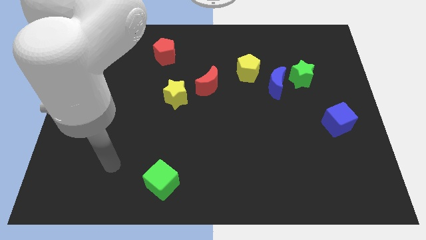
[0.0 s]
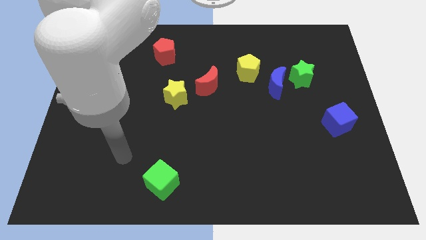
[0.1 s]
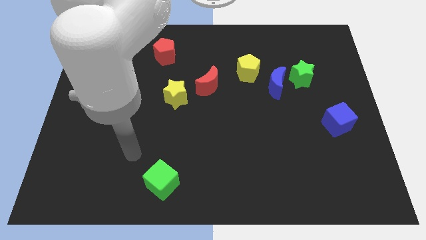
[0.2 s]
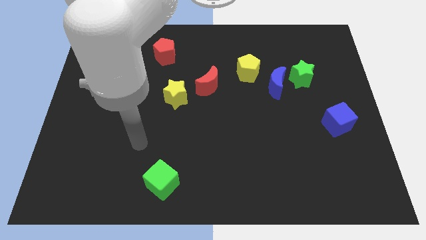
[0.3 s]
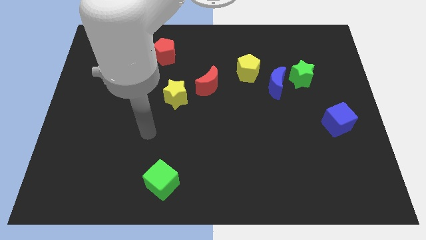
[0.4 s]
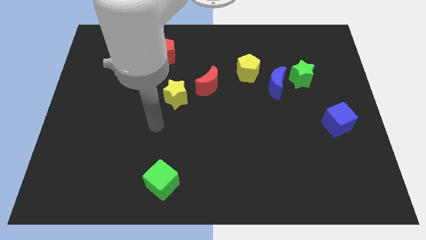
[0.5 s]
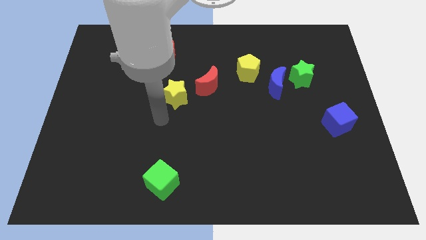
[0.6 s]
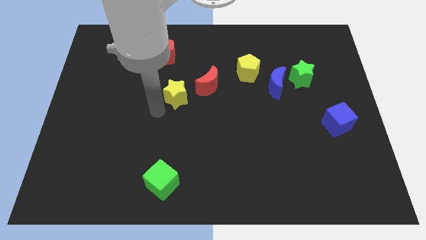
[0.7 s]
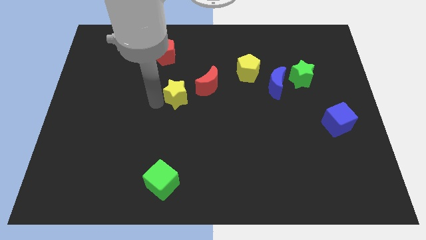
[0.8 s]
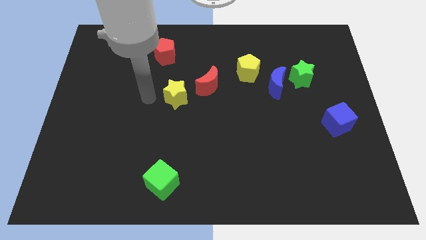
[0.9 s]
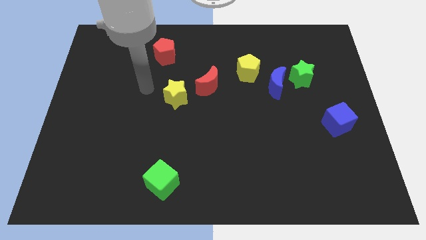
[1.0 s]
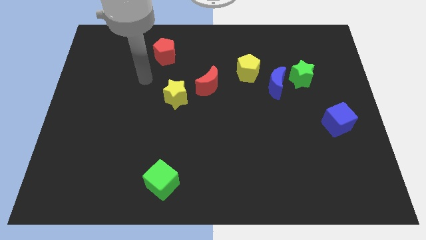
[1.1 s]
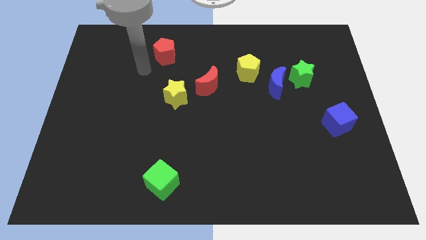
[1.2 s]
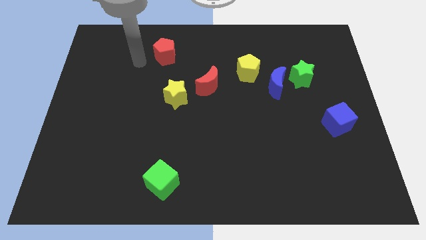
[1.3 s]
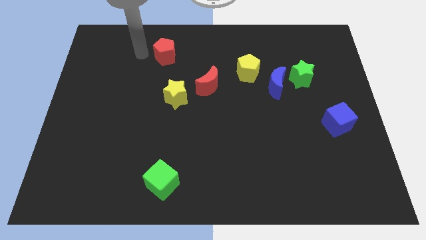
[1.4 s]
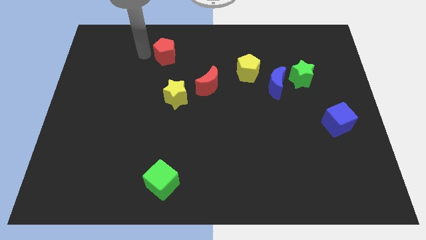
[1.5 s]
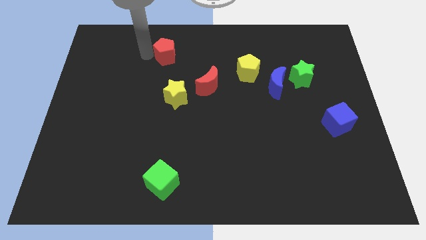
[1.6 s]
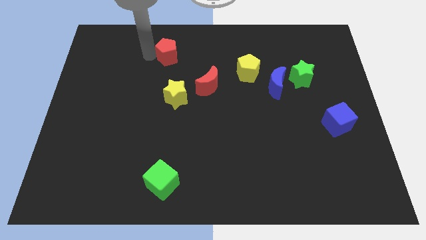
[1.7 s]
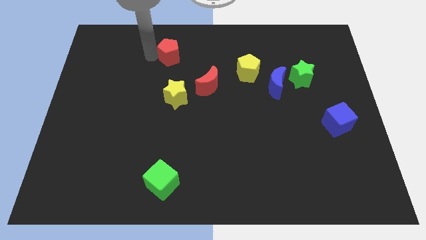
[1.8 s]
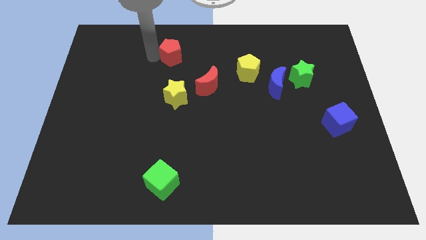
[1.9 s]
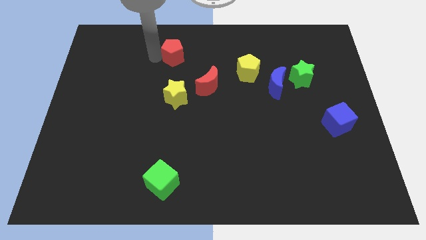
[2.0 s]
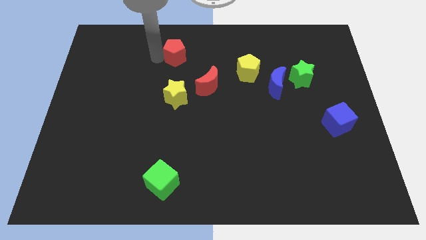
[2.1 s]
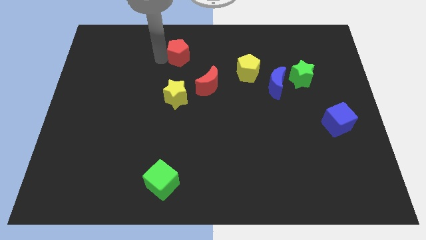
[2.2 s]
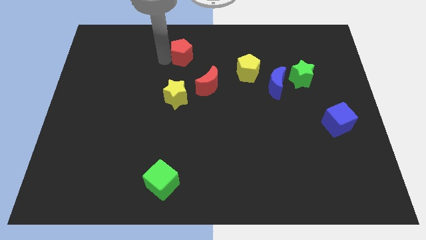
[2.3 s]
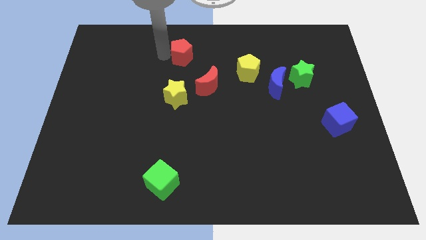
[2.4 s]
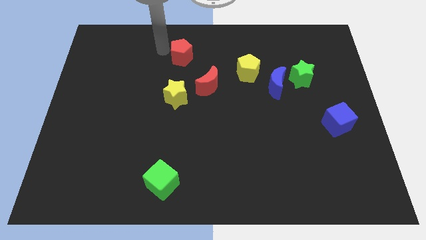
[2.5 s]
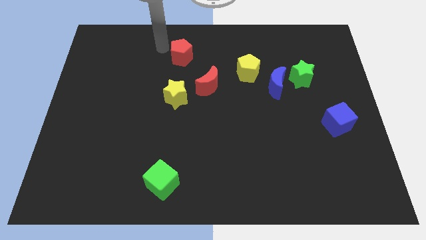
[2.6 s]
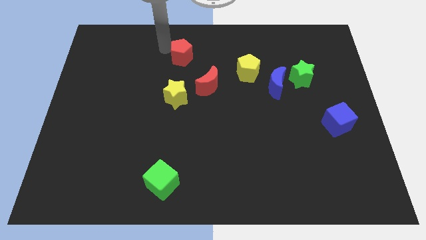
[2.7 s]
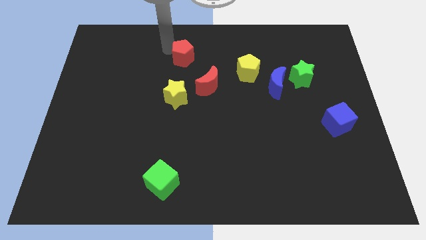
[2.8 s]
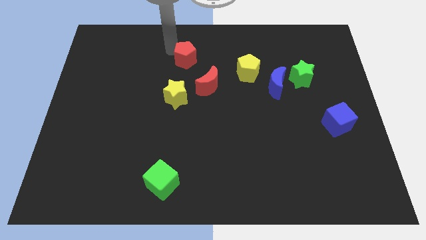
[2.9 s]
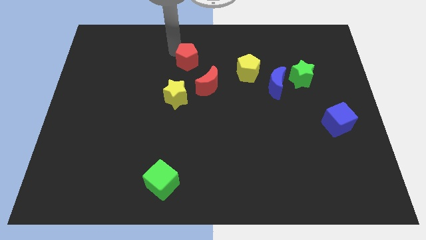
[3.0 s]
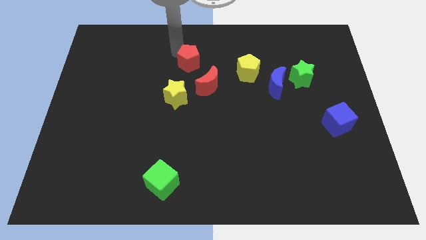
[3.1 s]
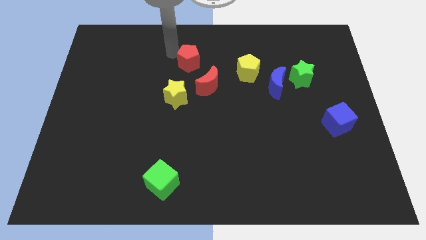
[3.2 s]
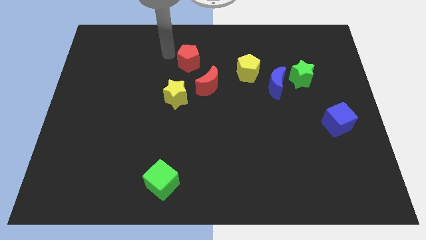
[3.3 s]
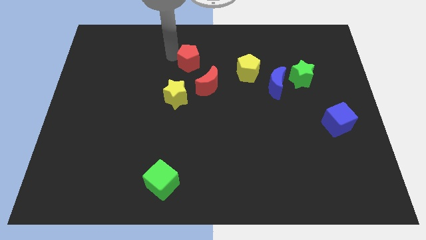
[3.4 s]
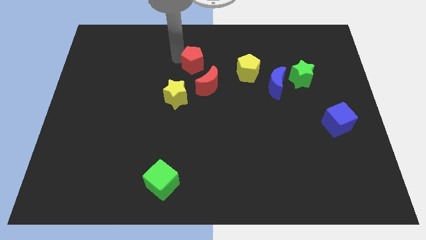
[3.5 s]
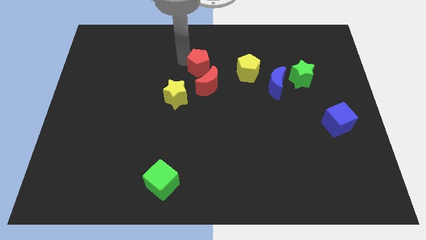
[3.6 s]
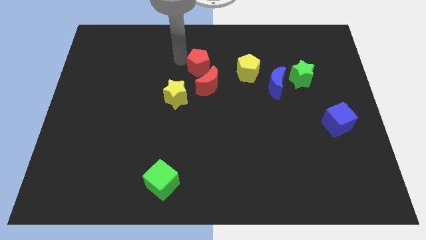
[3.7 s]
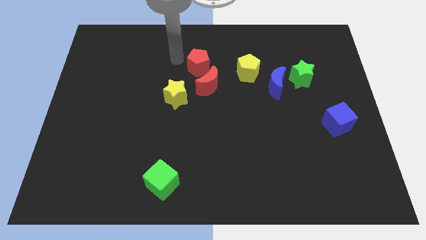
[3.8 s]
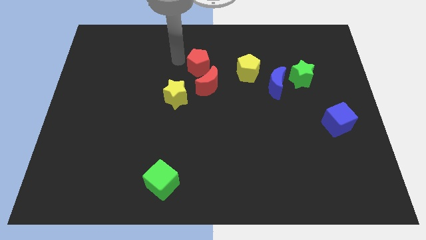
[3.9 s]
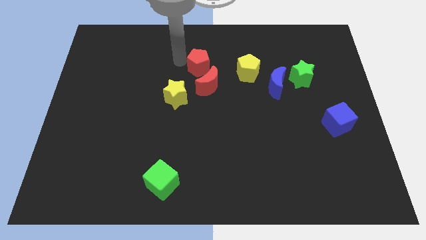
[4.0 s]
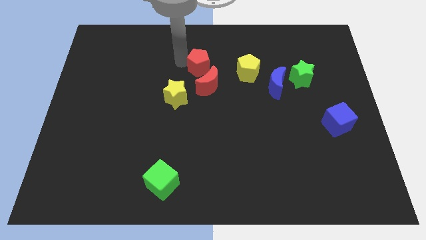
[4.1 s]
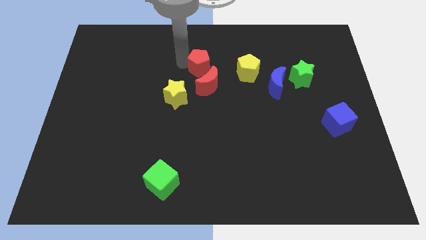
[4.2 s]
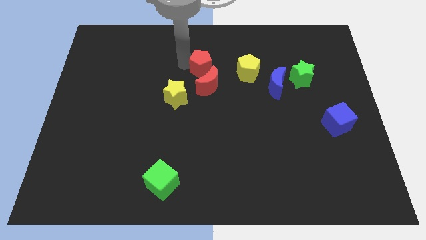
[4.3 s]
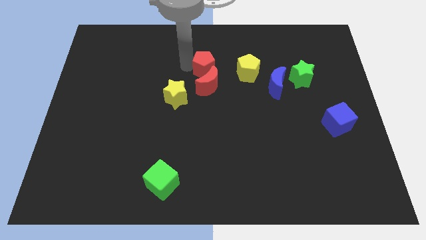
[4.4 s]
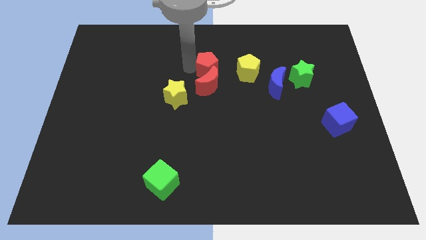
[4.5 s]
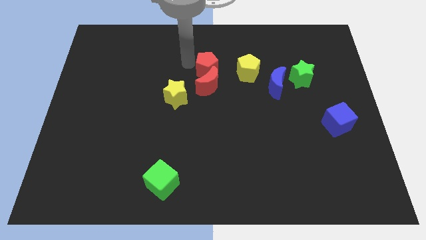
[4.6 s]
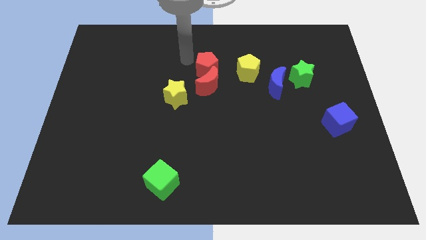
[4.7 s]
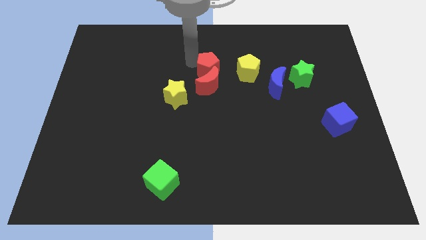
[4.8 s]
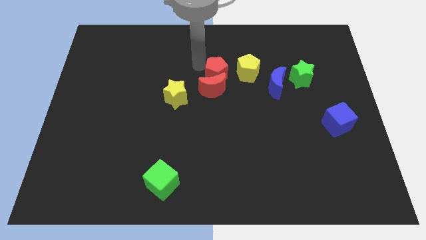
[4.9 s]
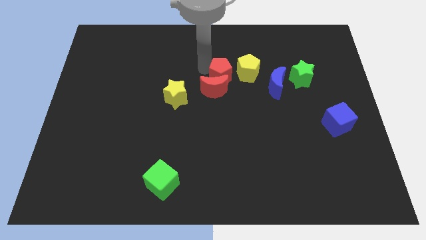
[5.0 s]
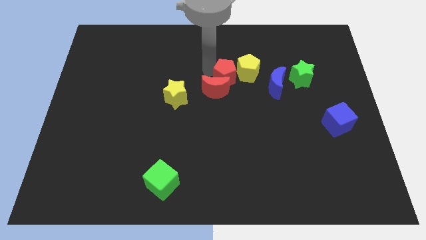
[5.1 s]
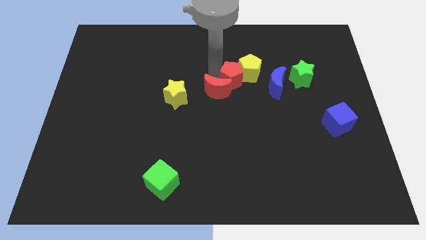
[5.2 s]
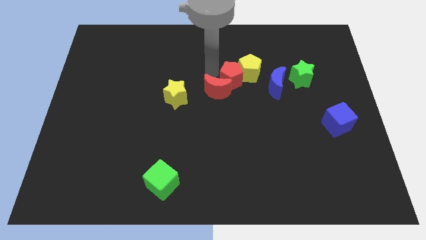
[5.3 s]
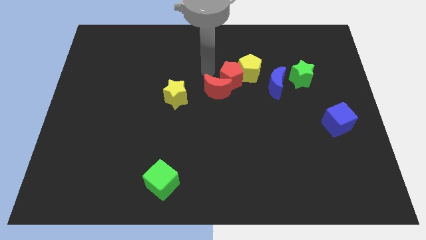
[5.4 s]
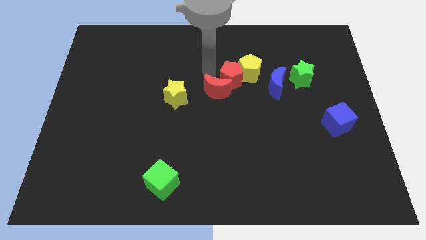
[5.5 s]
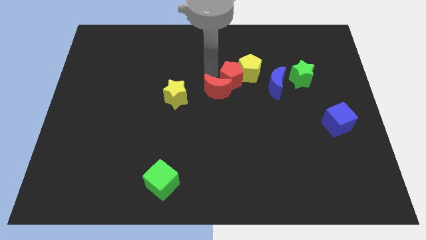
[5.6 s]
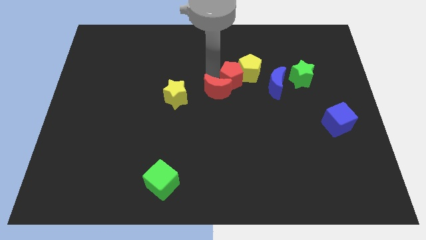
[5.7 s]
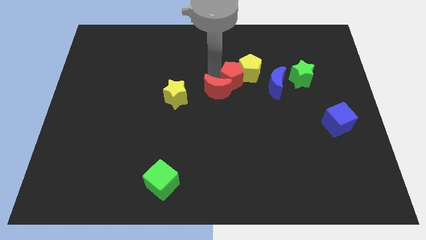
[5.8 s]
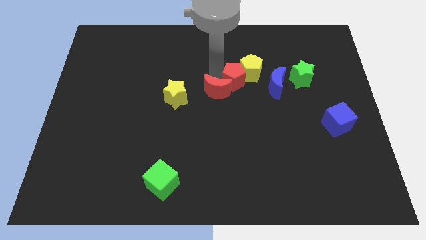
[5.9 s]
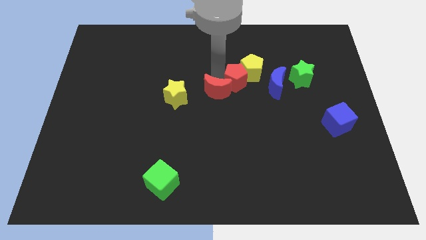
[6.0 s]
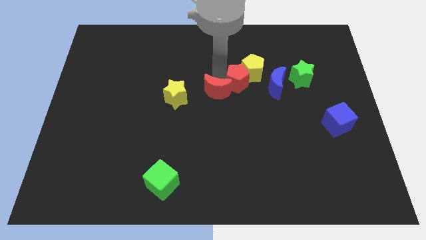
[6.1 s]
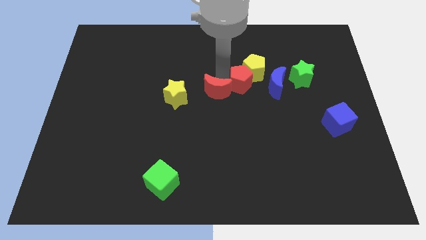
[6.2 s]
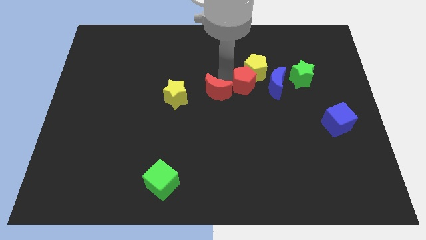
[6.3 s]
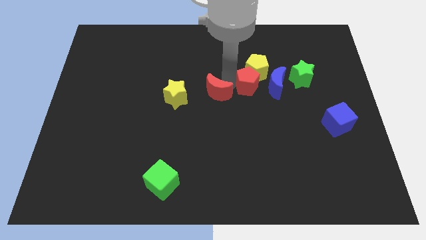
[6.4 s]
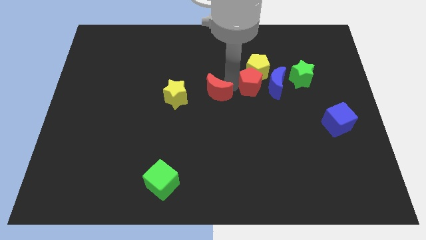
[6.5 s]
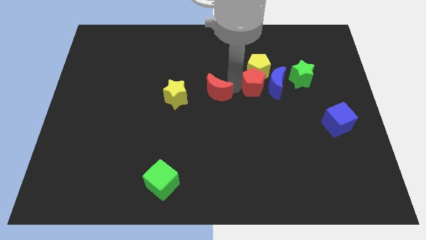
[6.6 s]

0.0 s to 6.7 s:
put the red pentagon to the blue moon
